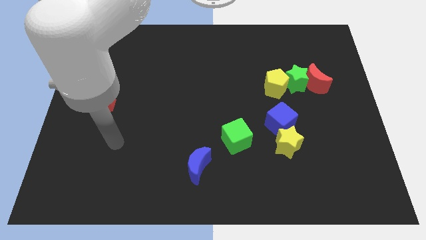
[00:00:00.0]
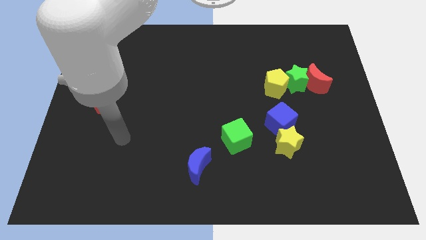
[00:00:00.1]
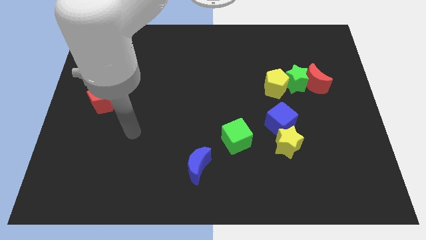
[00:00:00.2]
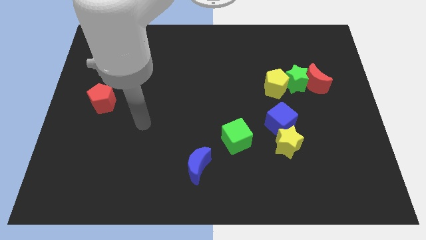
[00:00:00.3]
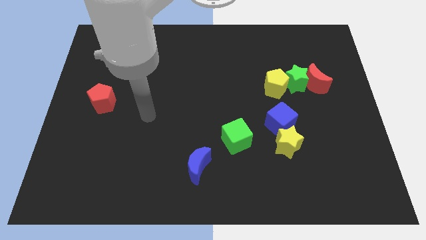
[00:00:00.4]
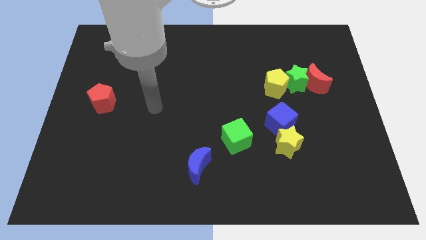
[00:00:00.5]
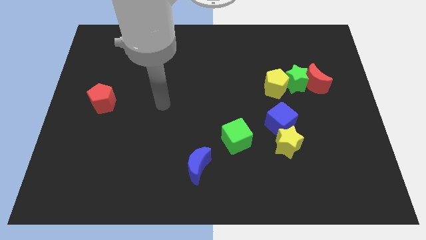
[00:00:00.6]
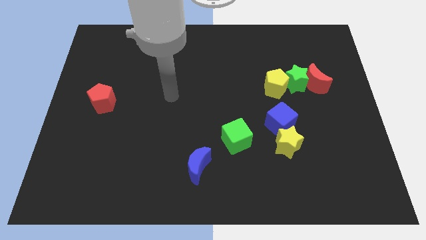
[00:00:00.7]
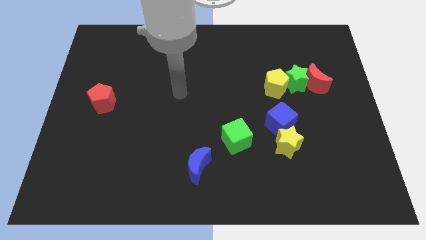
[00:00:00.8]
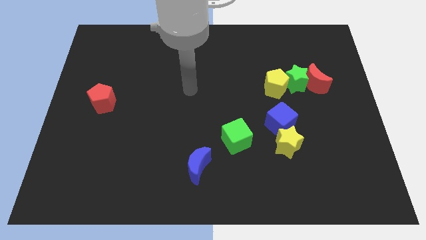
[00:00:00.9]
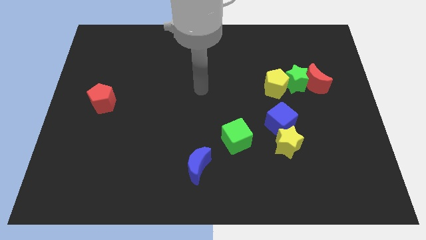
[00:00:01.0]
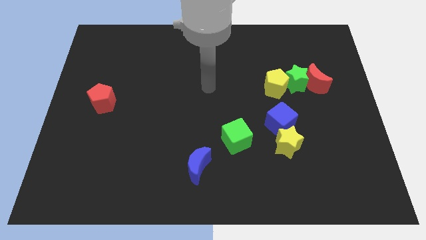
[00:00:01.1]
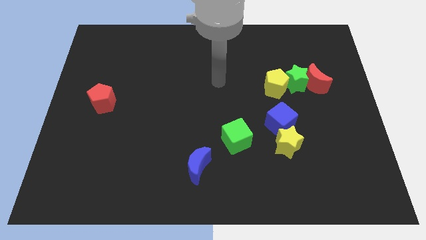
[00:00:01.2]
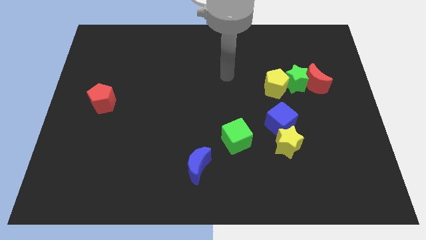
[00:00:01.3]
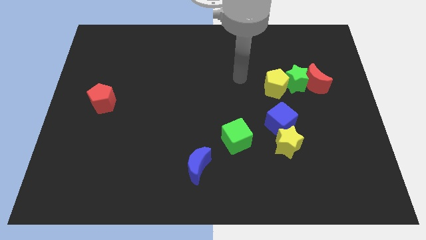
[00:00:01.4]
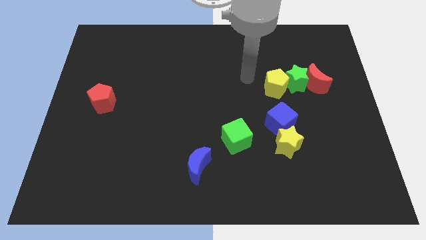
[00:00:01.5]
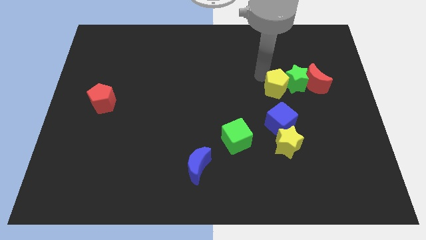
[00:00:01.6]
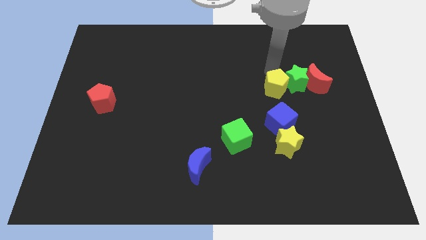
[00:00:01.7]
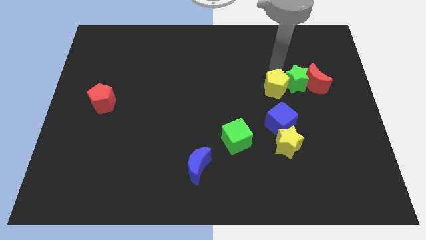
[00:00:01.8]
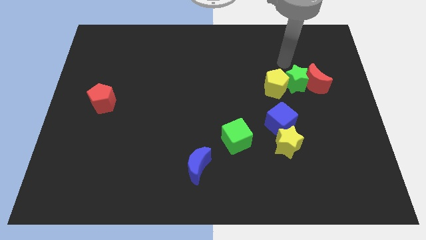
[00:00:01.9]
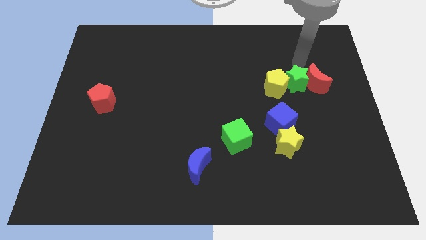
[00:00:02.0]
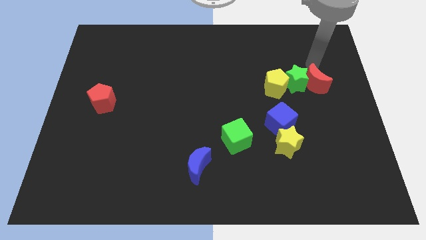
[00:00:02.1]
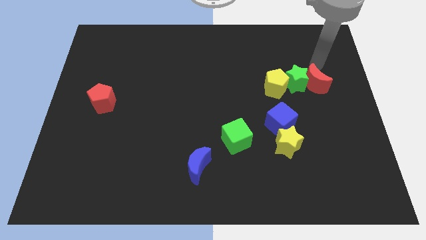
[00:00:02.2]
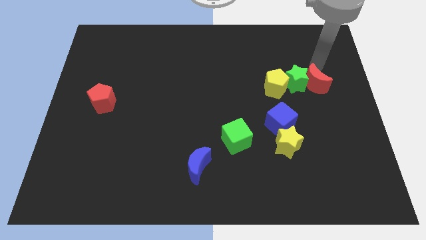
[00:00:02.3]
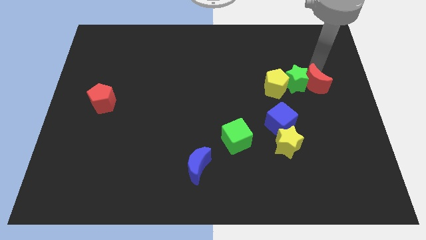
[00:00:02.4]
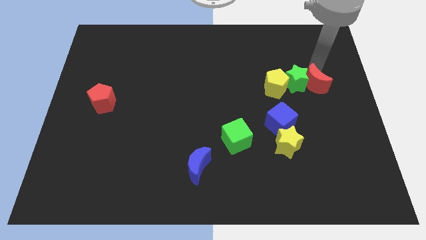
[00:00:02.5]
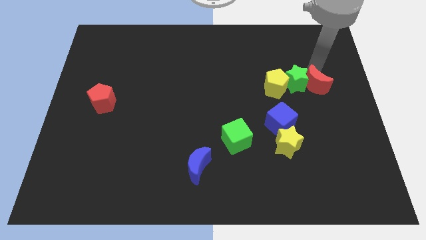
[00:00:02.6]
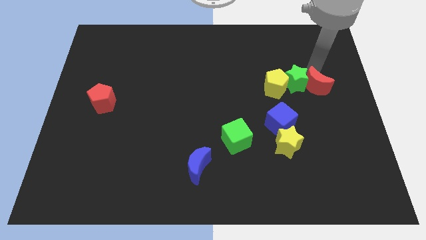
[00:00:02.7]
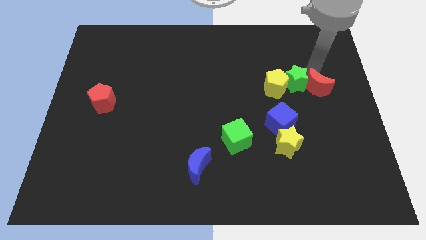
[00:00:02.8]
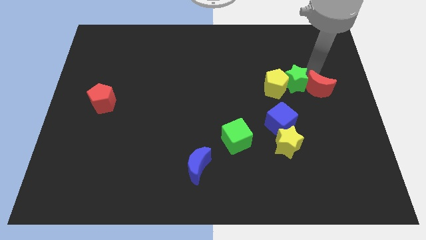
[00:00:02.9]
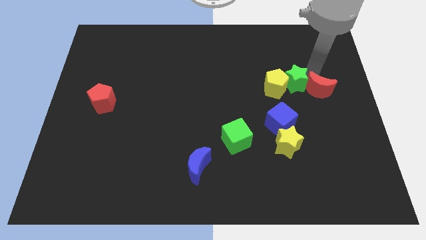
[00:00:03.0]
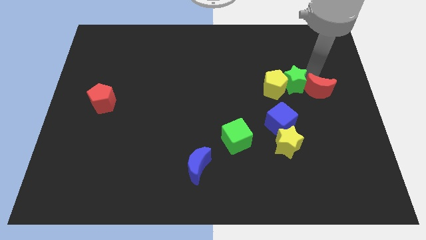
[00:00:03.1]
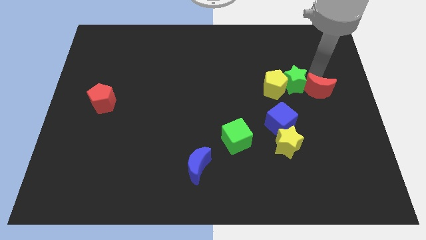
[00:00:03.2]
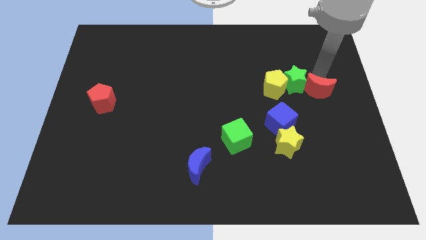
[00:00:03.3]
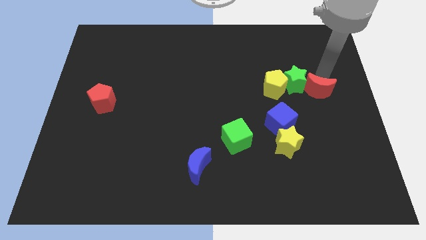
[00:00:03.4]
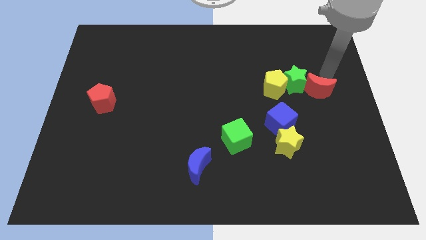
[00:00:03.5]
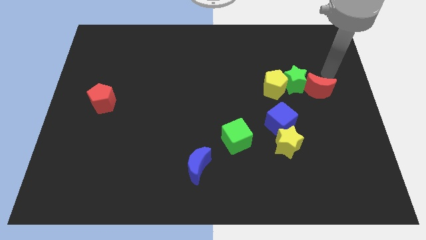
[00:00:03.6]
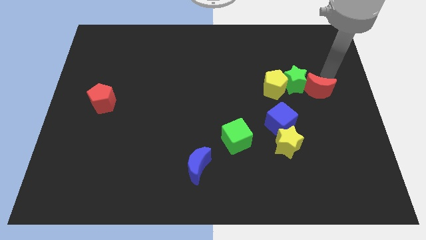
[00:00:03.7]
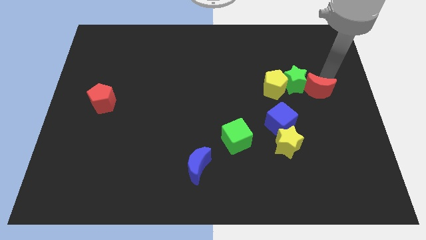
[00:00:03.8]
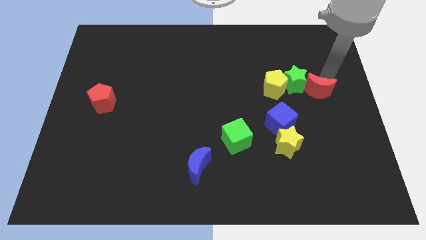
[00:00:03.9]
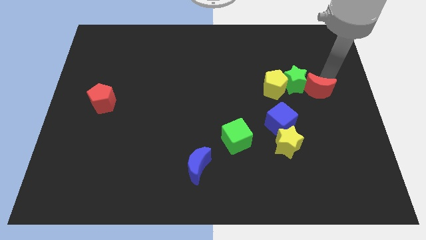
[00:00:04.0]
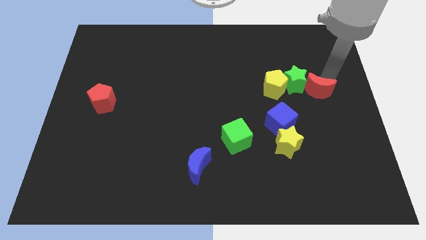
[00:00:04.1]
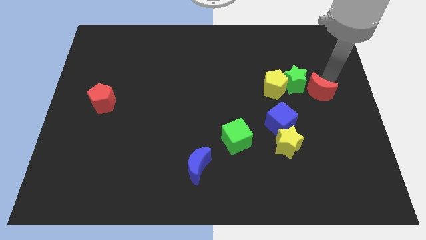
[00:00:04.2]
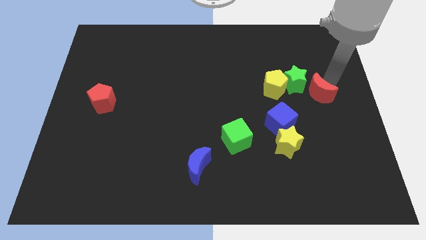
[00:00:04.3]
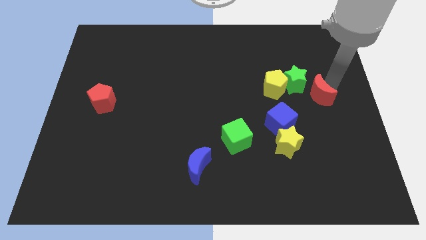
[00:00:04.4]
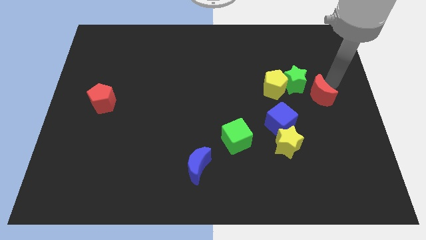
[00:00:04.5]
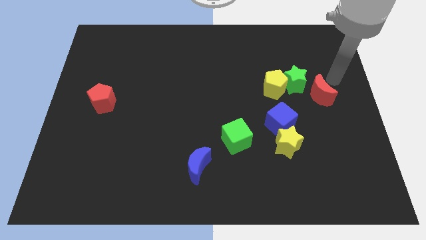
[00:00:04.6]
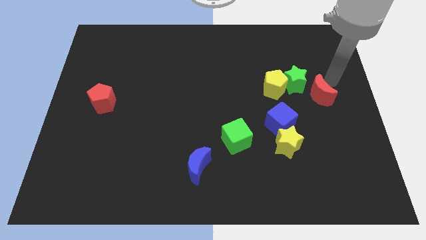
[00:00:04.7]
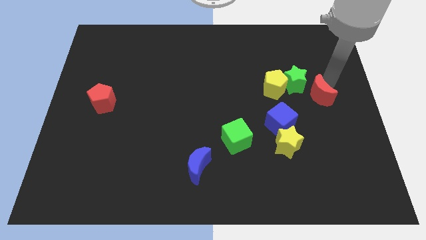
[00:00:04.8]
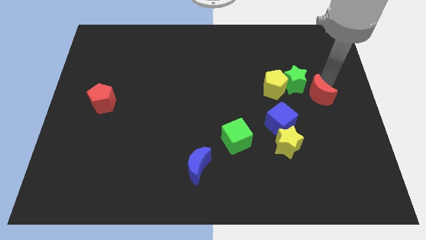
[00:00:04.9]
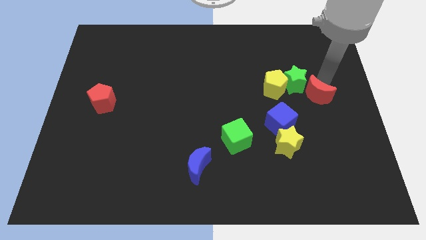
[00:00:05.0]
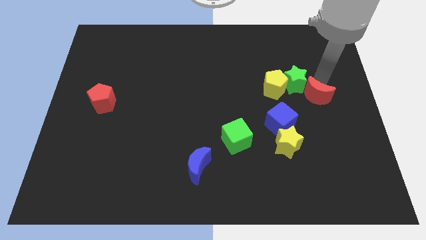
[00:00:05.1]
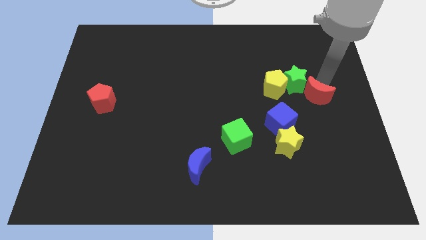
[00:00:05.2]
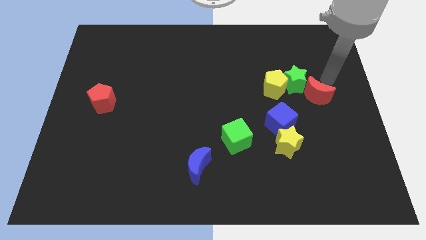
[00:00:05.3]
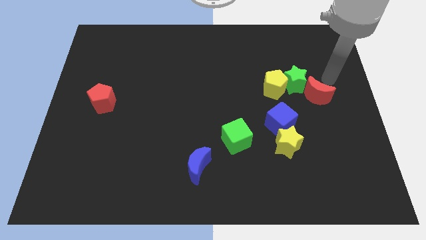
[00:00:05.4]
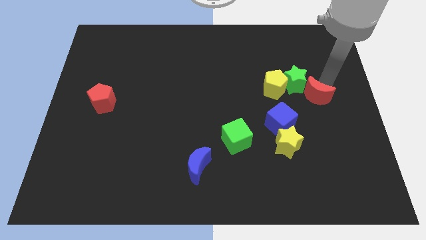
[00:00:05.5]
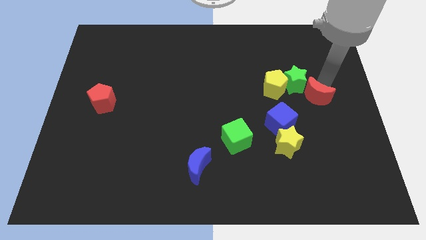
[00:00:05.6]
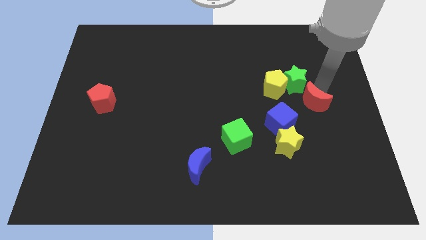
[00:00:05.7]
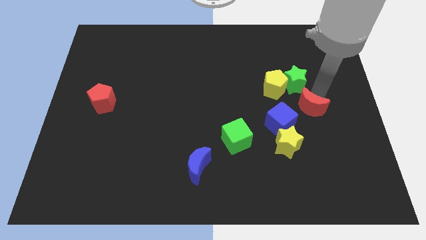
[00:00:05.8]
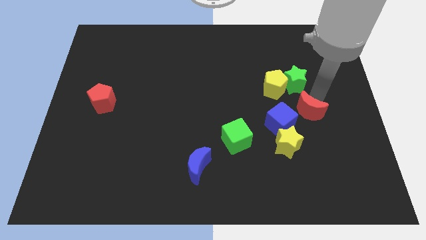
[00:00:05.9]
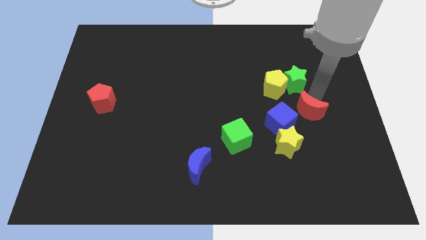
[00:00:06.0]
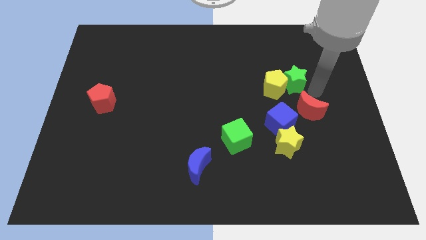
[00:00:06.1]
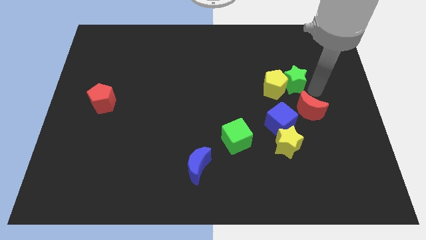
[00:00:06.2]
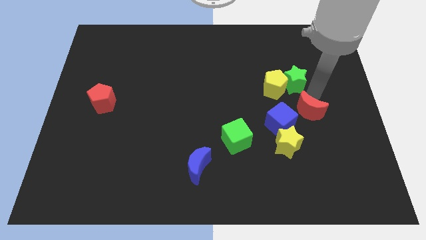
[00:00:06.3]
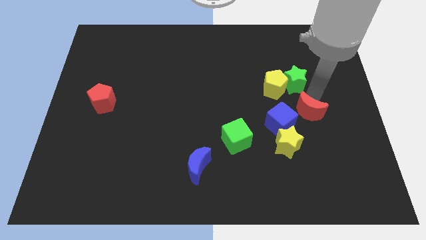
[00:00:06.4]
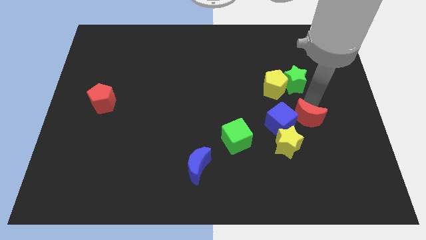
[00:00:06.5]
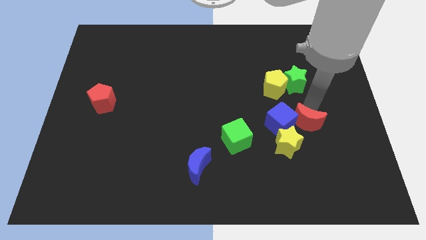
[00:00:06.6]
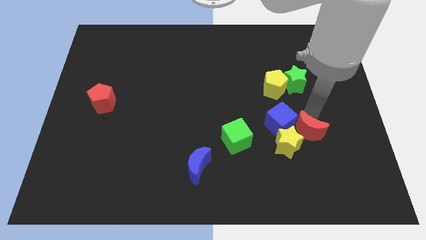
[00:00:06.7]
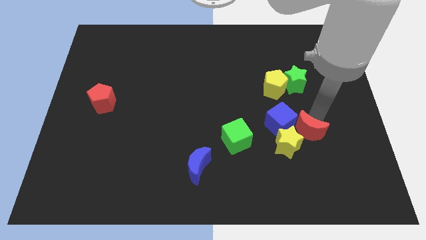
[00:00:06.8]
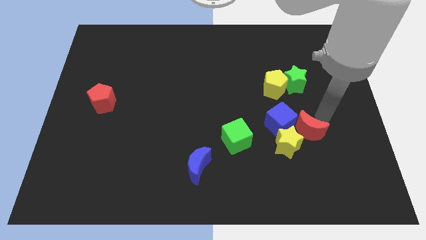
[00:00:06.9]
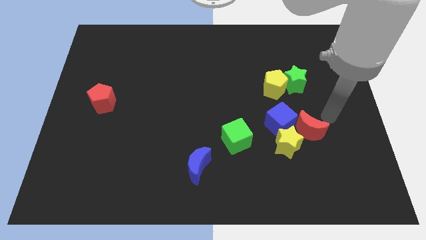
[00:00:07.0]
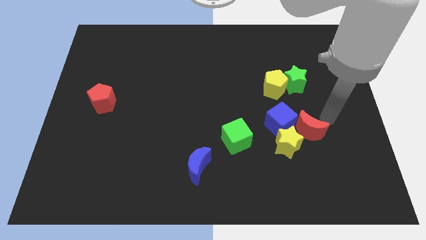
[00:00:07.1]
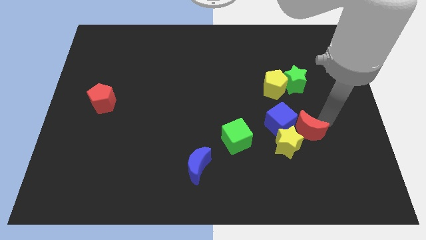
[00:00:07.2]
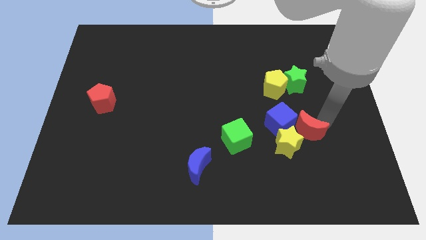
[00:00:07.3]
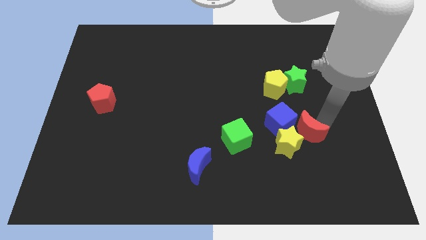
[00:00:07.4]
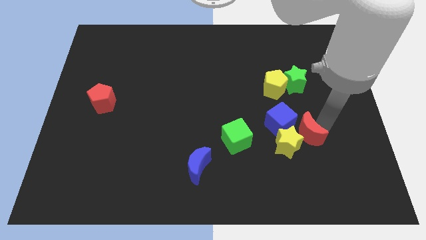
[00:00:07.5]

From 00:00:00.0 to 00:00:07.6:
push the red moon towards the yellow star
